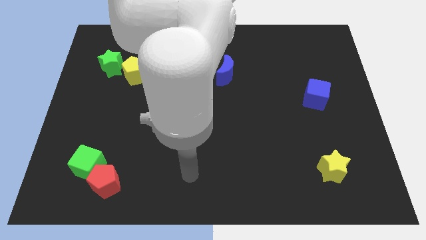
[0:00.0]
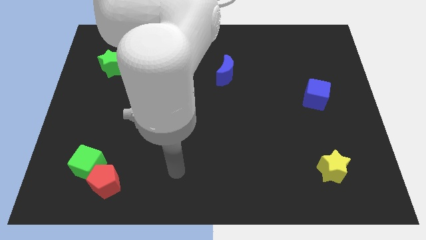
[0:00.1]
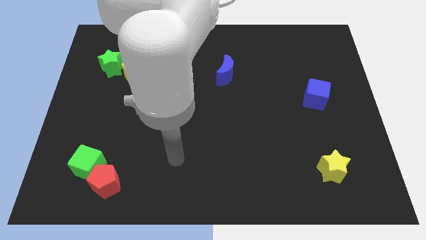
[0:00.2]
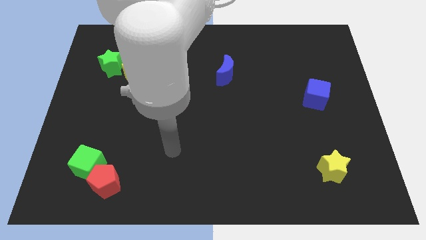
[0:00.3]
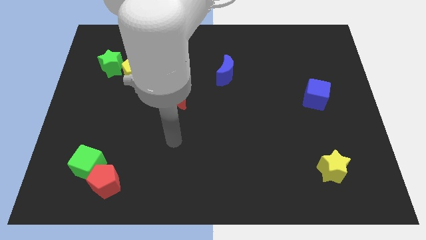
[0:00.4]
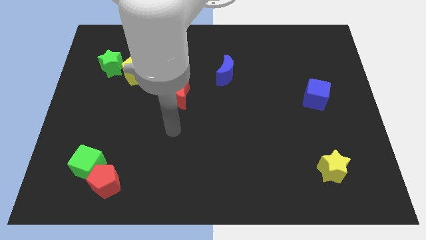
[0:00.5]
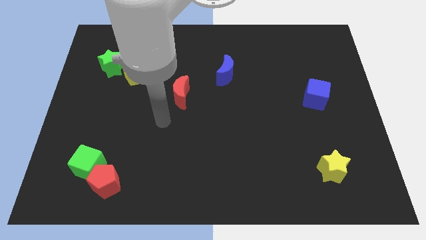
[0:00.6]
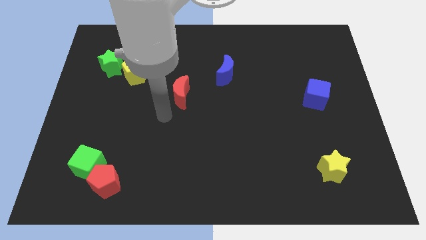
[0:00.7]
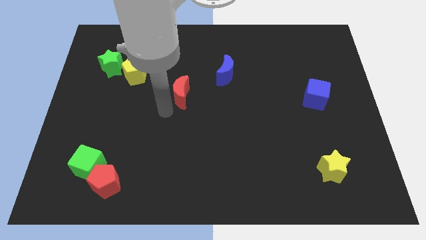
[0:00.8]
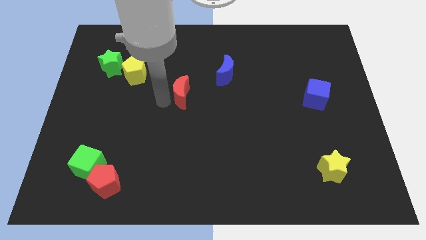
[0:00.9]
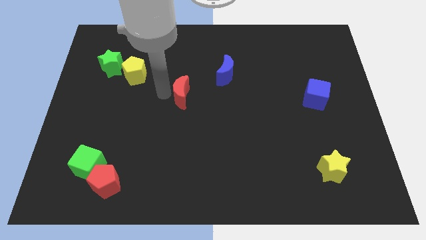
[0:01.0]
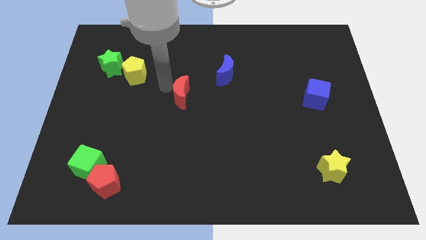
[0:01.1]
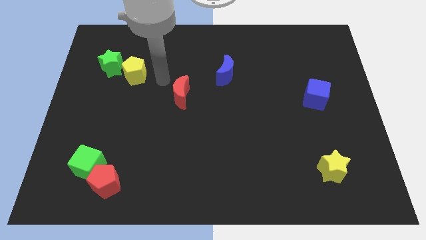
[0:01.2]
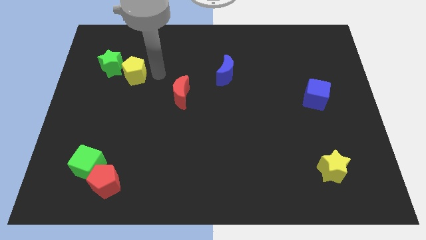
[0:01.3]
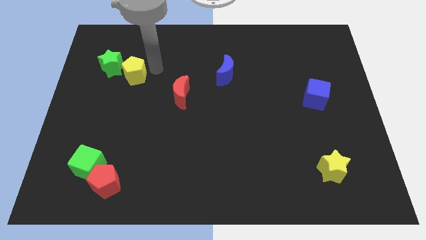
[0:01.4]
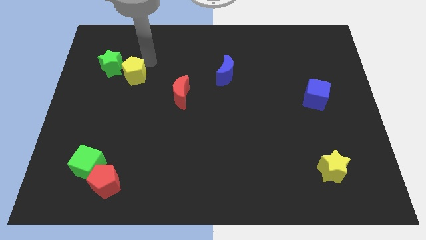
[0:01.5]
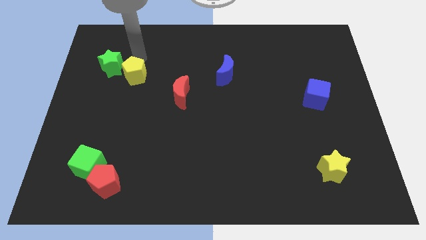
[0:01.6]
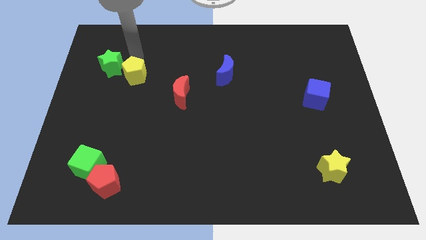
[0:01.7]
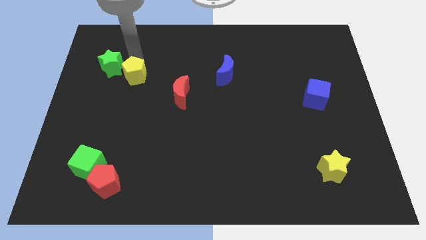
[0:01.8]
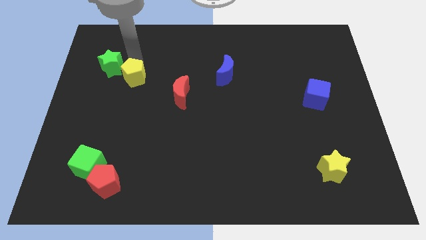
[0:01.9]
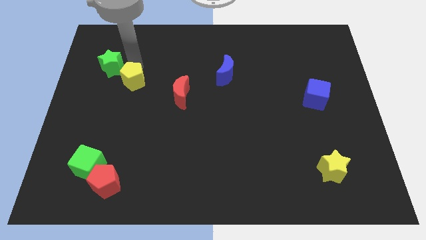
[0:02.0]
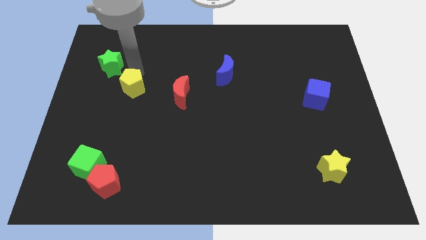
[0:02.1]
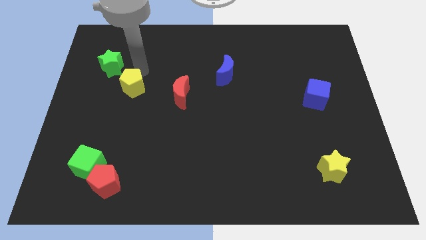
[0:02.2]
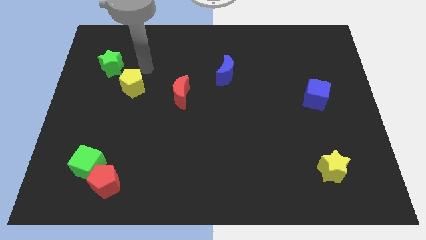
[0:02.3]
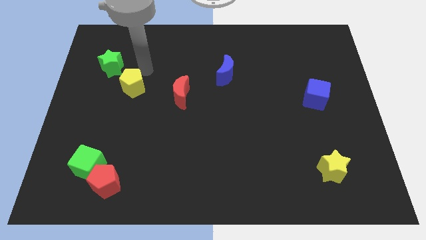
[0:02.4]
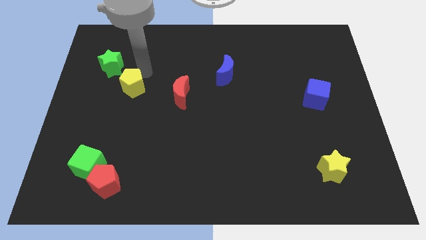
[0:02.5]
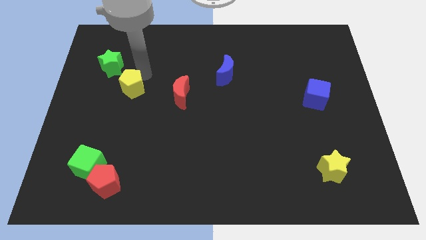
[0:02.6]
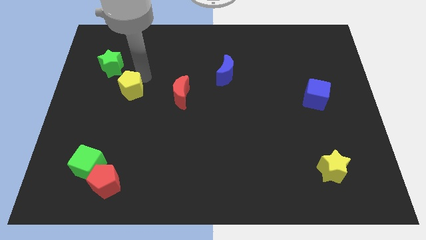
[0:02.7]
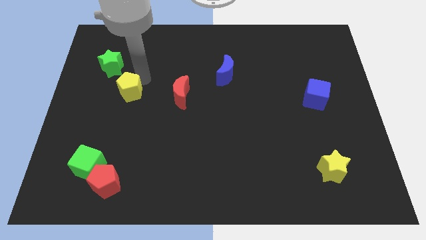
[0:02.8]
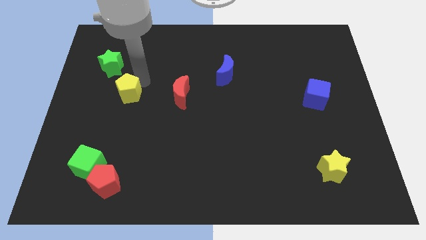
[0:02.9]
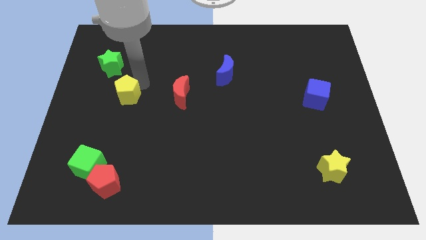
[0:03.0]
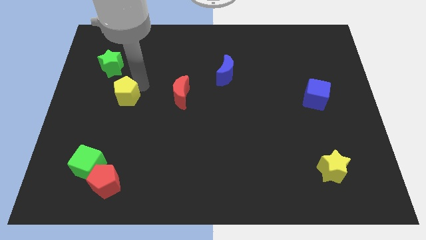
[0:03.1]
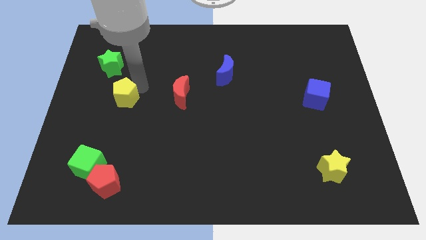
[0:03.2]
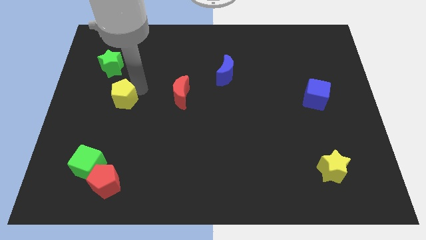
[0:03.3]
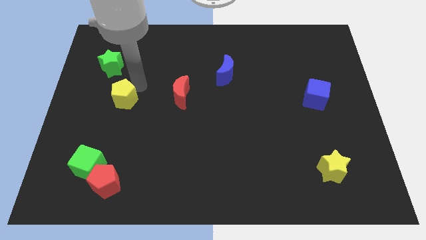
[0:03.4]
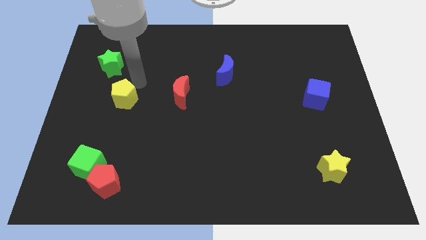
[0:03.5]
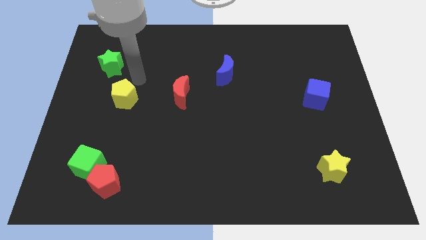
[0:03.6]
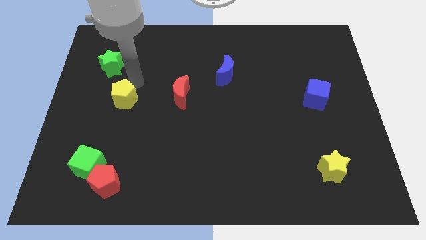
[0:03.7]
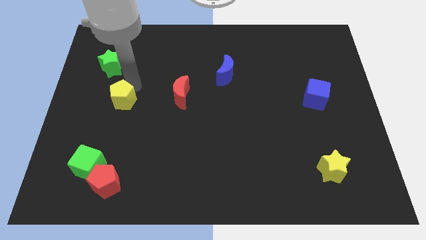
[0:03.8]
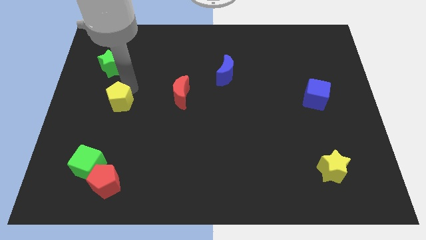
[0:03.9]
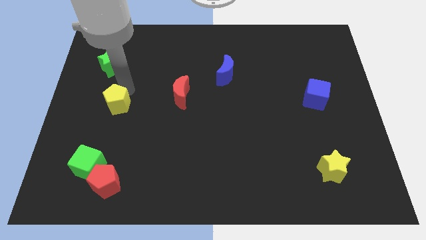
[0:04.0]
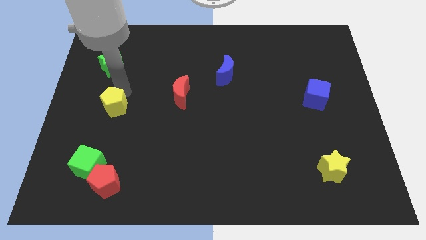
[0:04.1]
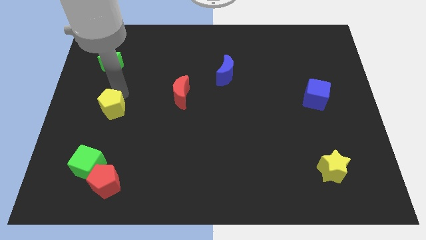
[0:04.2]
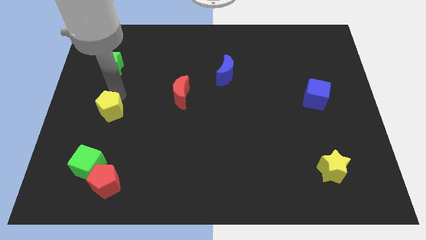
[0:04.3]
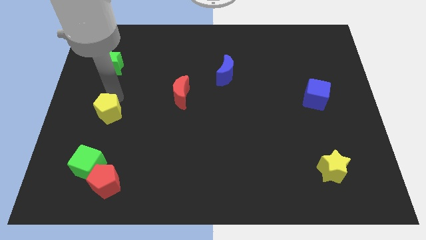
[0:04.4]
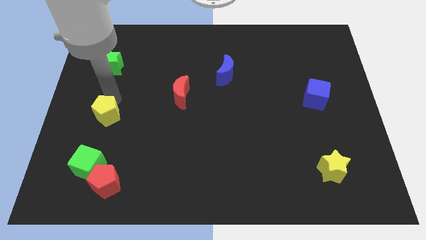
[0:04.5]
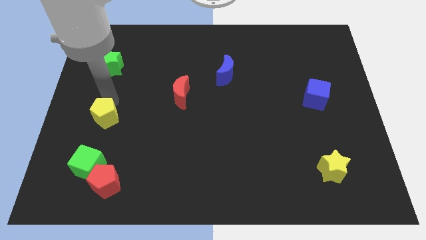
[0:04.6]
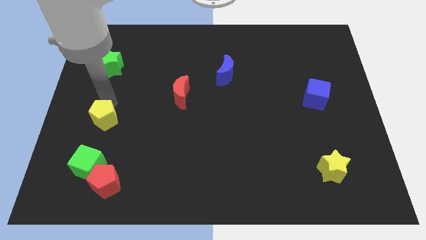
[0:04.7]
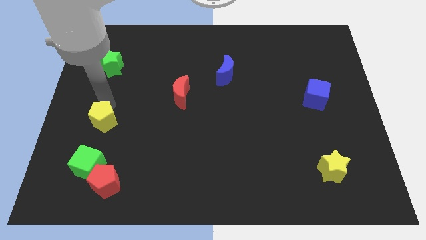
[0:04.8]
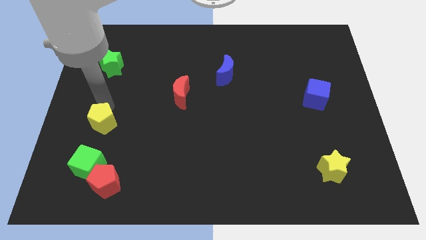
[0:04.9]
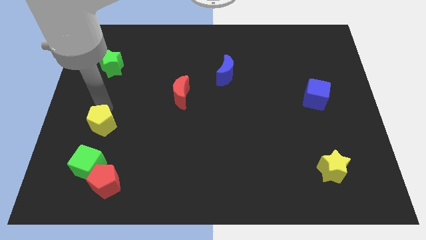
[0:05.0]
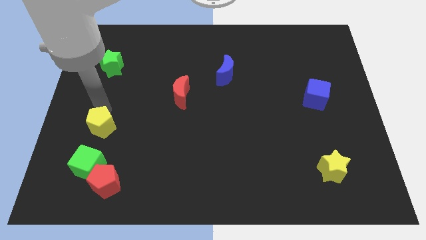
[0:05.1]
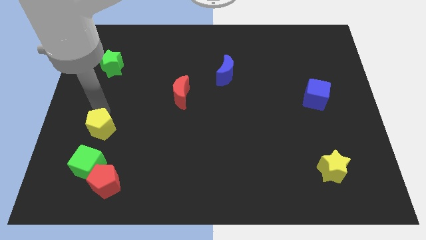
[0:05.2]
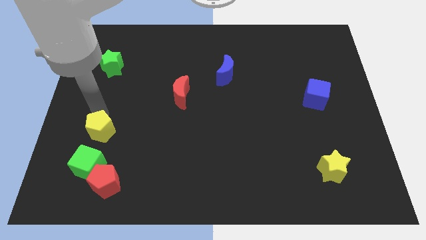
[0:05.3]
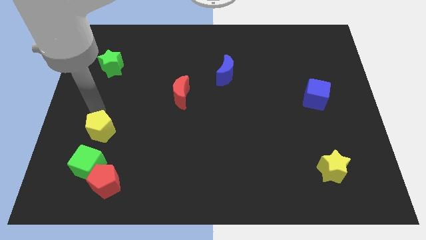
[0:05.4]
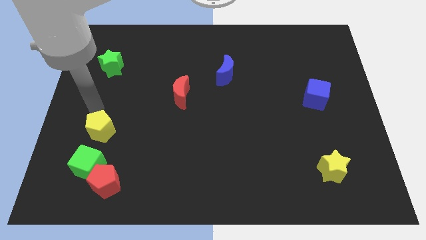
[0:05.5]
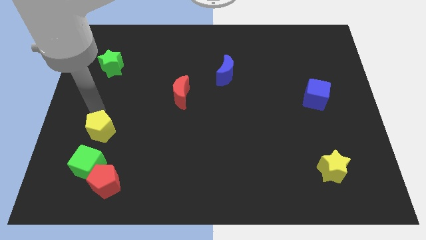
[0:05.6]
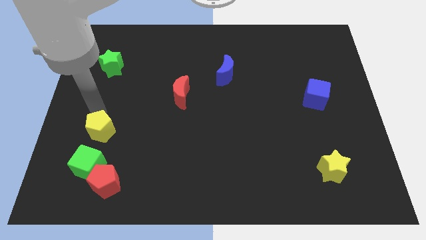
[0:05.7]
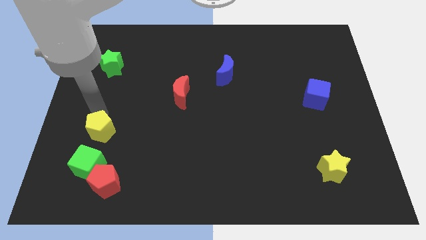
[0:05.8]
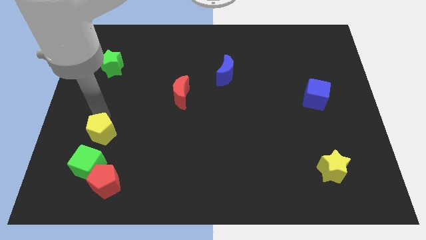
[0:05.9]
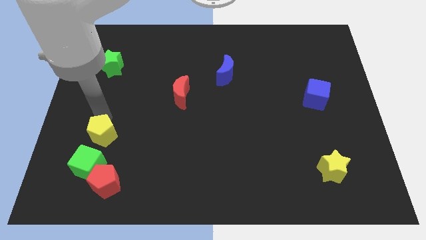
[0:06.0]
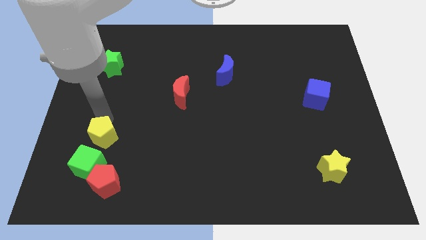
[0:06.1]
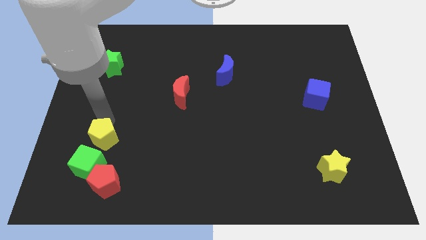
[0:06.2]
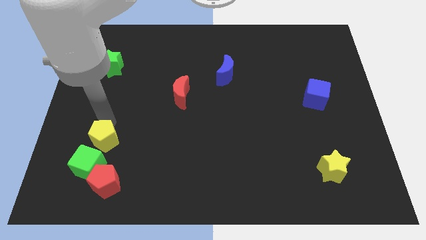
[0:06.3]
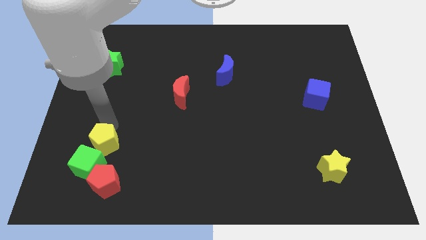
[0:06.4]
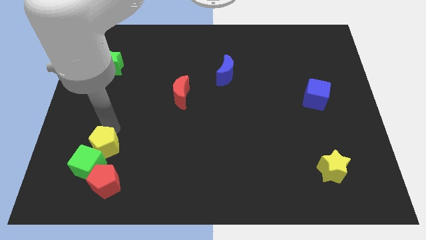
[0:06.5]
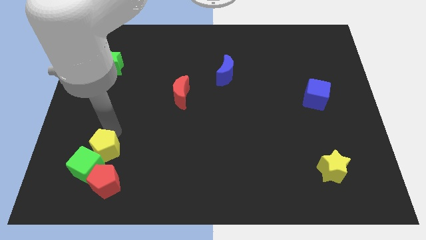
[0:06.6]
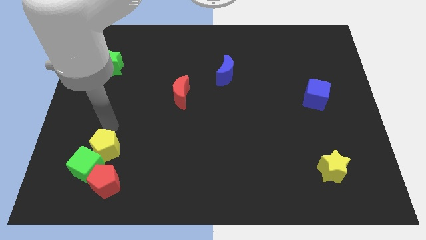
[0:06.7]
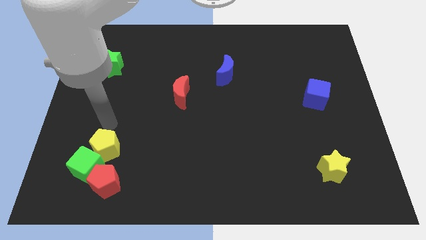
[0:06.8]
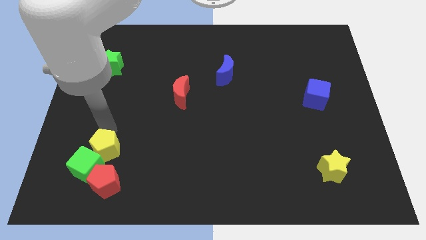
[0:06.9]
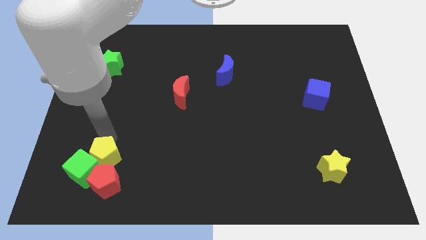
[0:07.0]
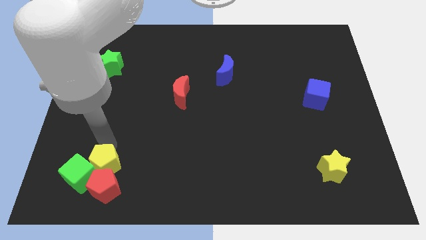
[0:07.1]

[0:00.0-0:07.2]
move the yellow pentagon to the red pentagon
